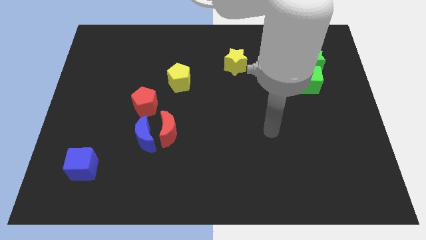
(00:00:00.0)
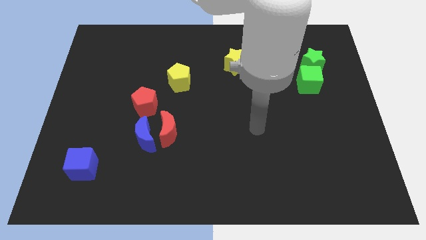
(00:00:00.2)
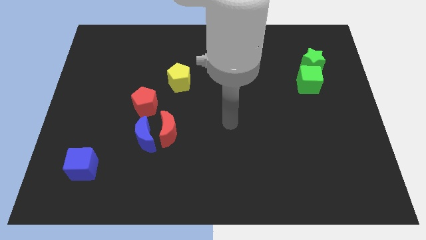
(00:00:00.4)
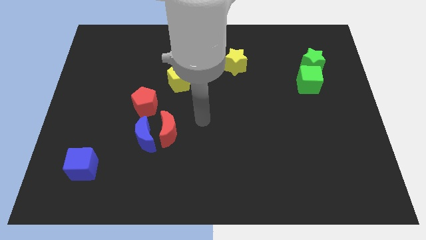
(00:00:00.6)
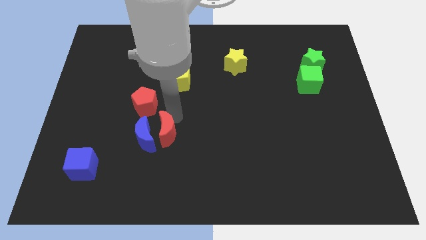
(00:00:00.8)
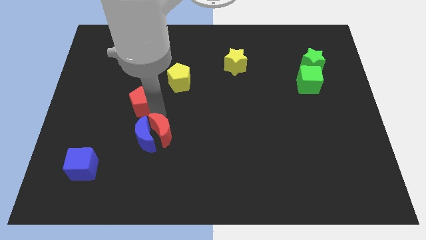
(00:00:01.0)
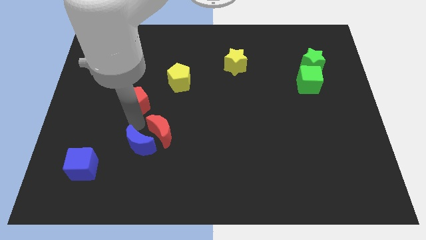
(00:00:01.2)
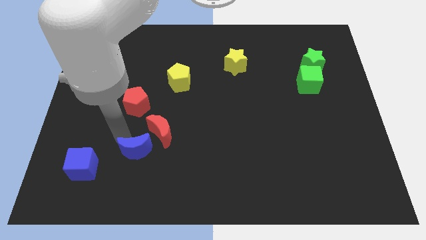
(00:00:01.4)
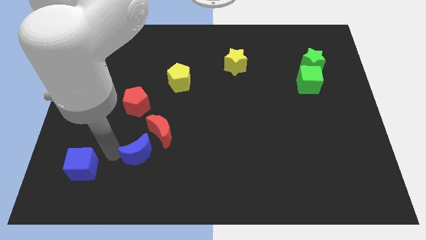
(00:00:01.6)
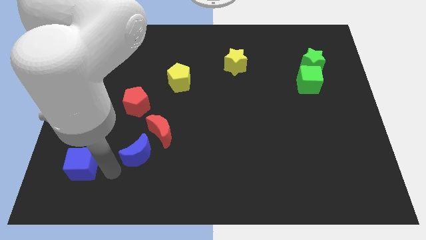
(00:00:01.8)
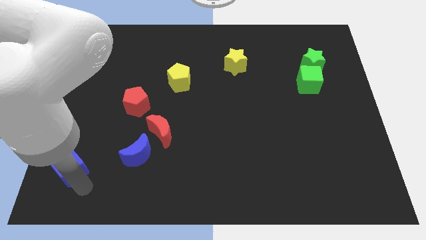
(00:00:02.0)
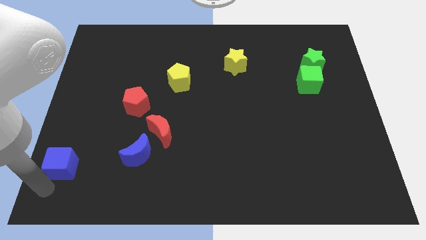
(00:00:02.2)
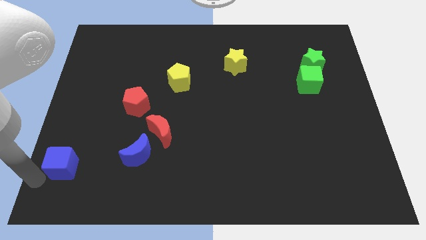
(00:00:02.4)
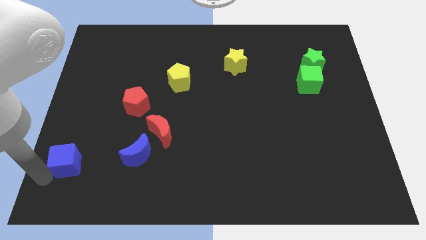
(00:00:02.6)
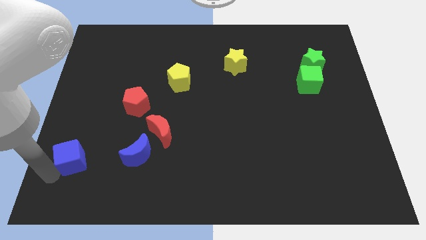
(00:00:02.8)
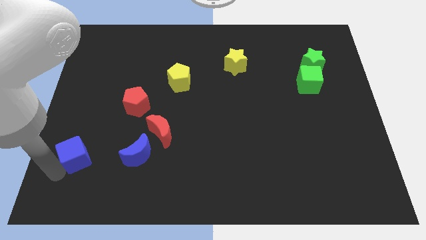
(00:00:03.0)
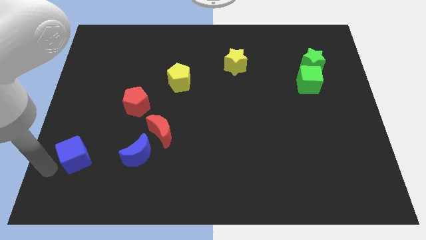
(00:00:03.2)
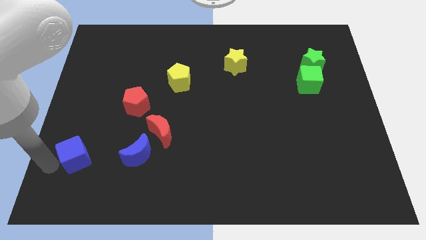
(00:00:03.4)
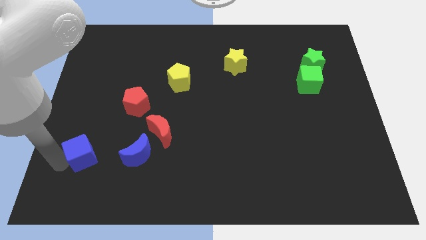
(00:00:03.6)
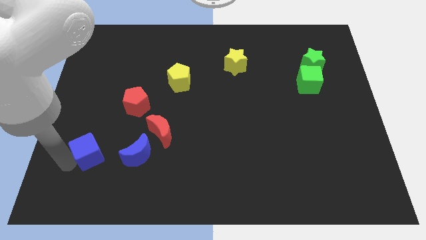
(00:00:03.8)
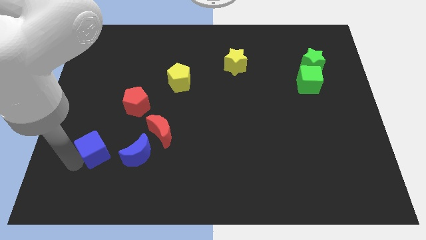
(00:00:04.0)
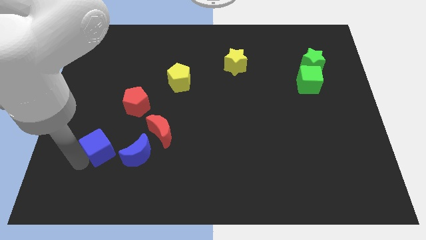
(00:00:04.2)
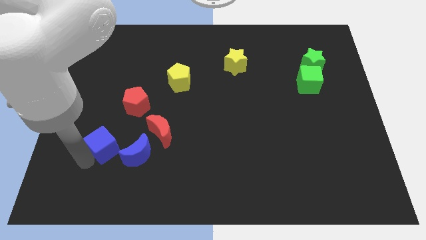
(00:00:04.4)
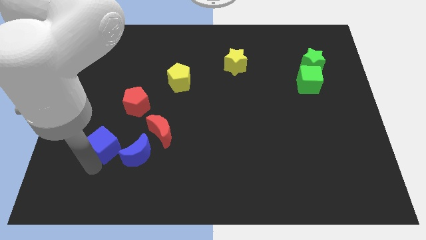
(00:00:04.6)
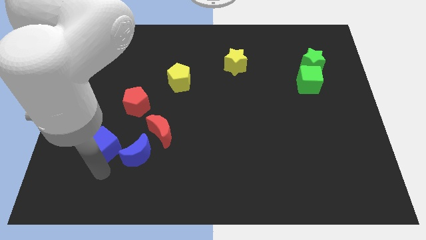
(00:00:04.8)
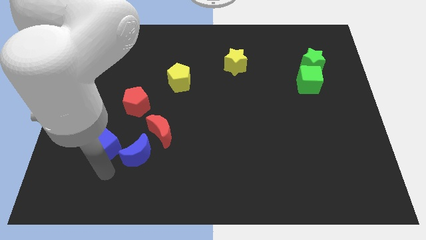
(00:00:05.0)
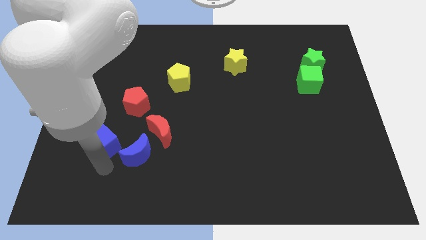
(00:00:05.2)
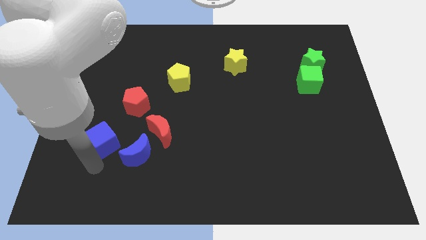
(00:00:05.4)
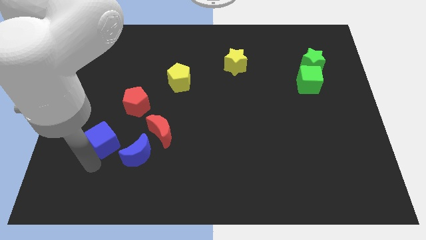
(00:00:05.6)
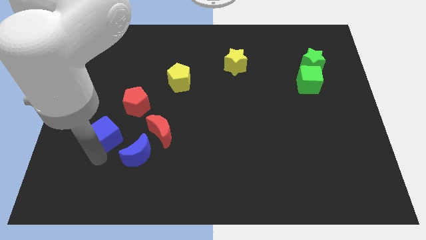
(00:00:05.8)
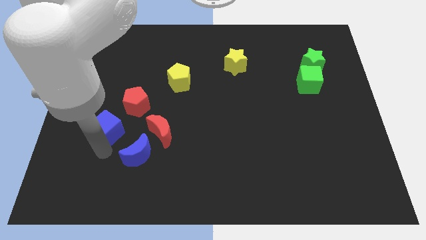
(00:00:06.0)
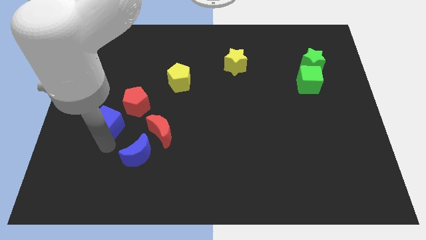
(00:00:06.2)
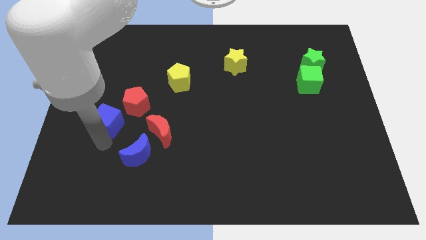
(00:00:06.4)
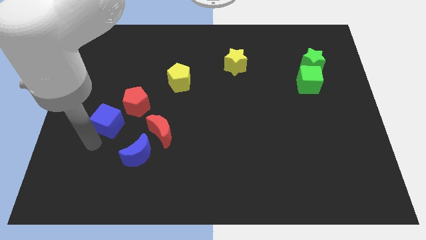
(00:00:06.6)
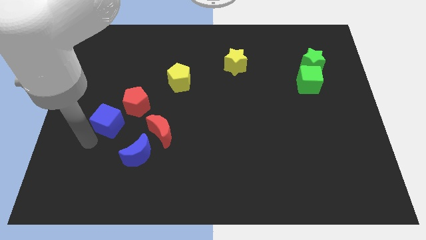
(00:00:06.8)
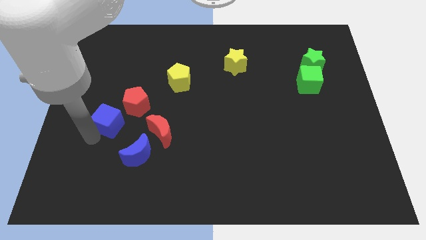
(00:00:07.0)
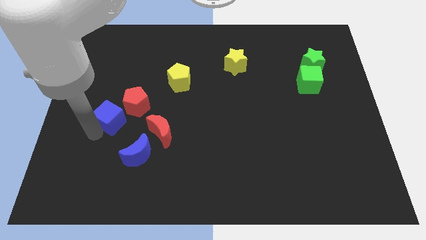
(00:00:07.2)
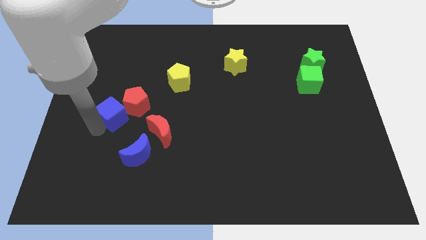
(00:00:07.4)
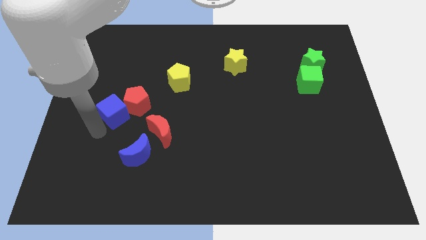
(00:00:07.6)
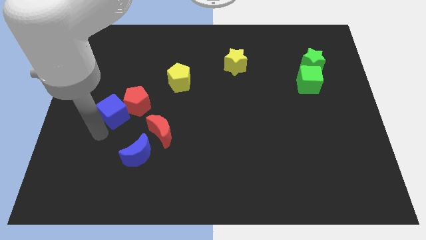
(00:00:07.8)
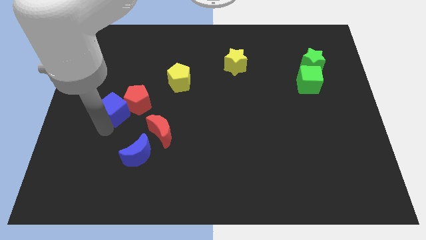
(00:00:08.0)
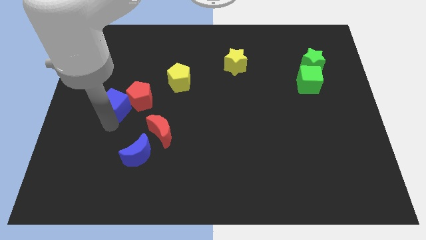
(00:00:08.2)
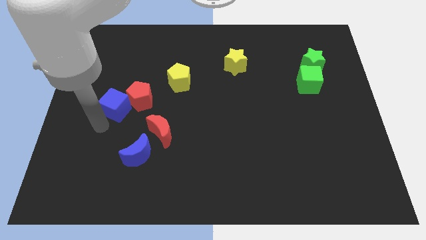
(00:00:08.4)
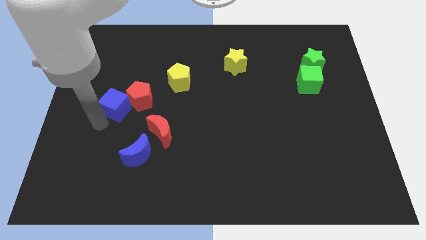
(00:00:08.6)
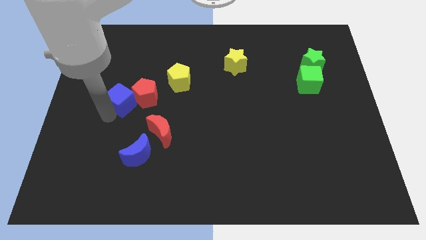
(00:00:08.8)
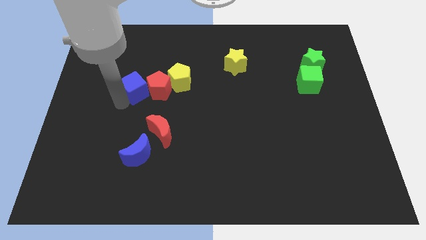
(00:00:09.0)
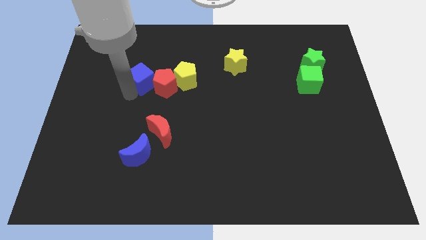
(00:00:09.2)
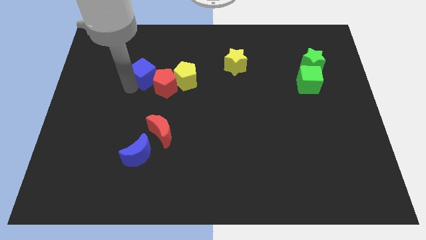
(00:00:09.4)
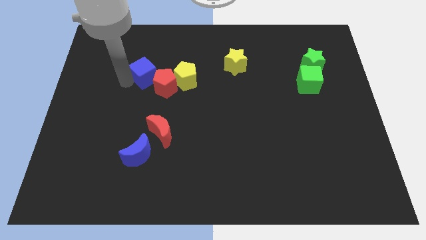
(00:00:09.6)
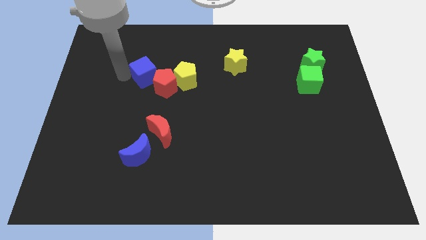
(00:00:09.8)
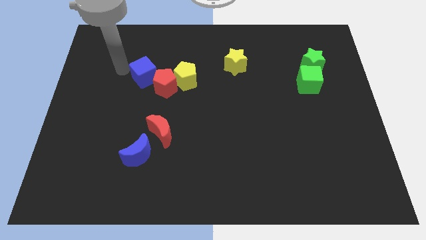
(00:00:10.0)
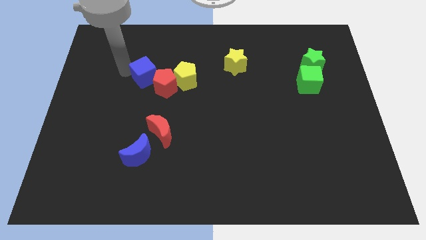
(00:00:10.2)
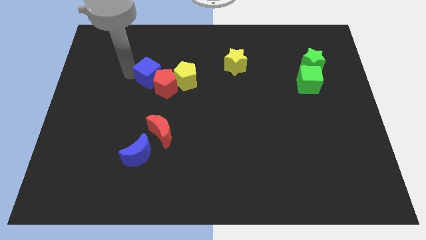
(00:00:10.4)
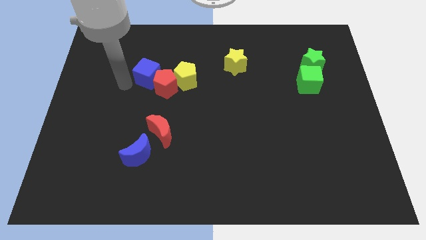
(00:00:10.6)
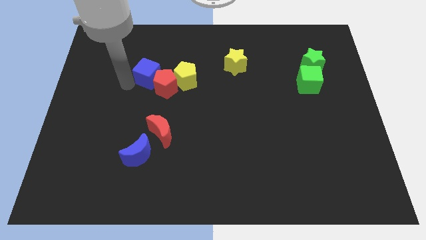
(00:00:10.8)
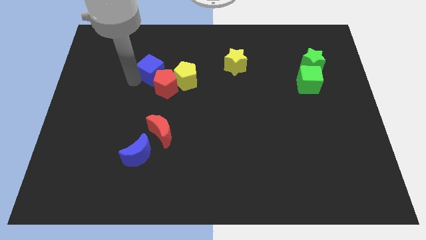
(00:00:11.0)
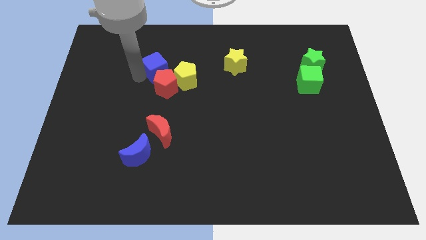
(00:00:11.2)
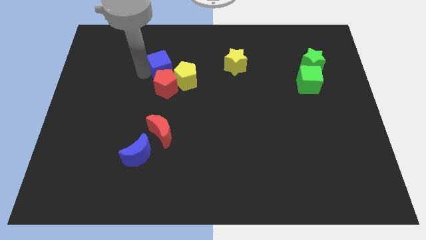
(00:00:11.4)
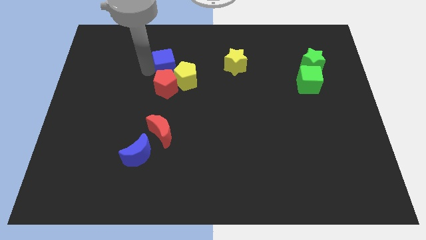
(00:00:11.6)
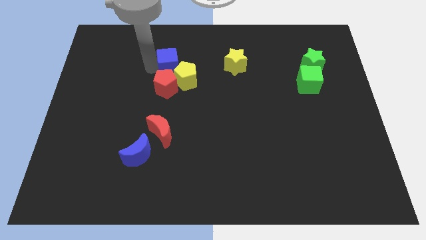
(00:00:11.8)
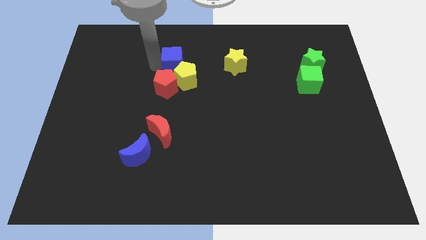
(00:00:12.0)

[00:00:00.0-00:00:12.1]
push the blue cube to the left side of the yellow star

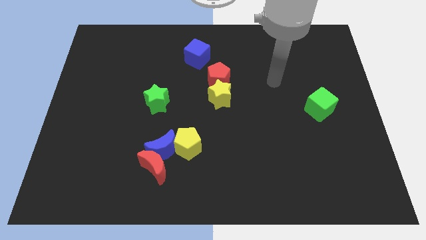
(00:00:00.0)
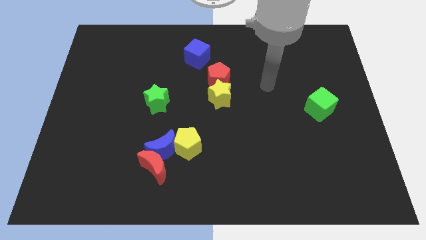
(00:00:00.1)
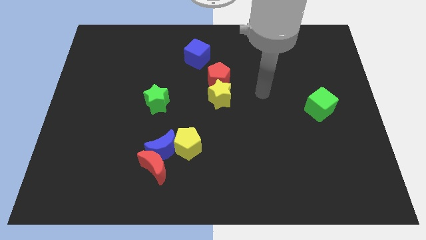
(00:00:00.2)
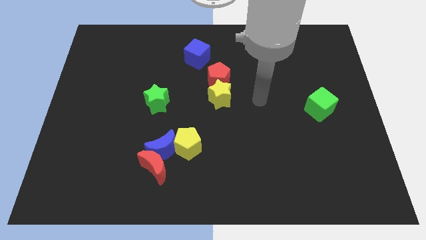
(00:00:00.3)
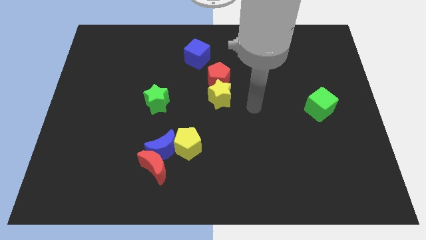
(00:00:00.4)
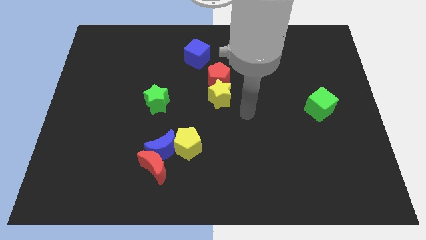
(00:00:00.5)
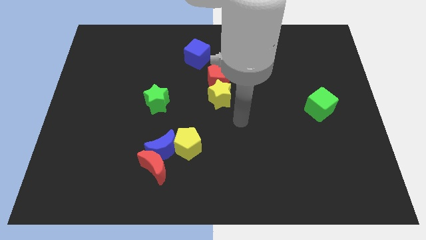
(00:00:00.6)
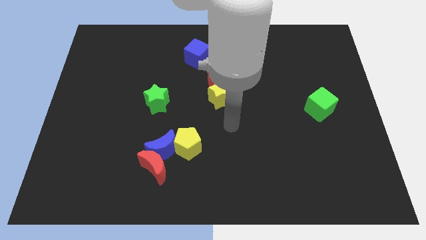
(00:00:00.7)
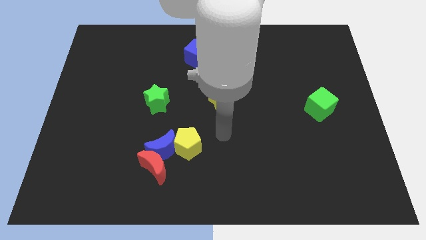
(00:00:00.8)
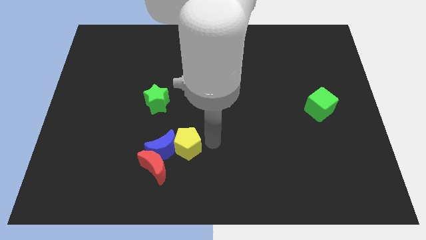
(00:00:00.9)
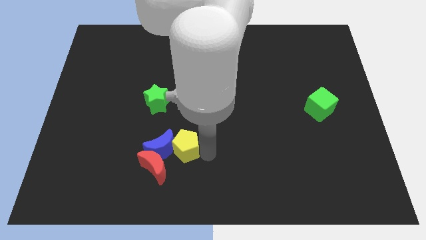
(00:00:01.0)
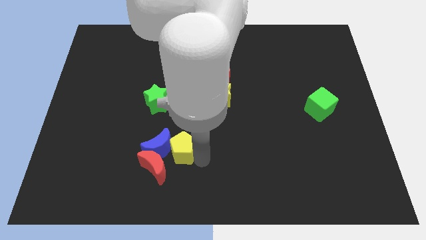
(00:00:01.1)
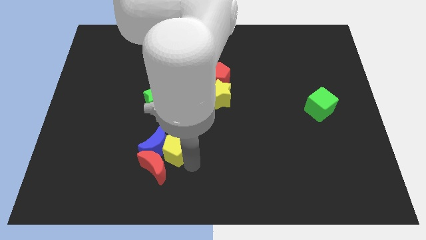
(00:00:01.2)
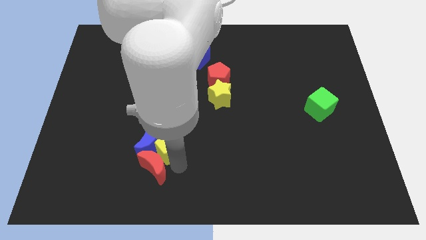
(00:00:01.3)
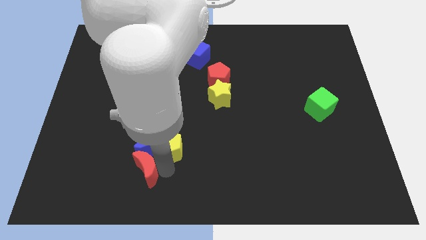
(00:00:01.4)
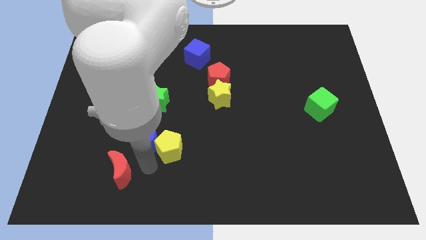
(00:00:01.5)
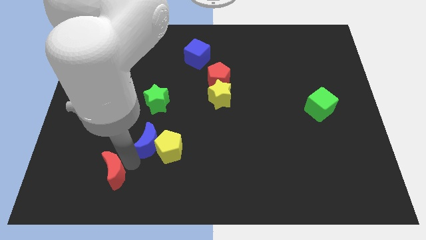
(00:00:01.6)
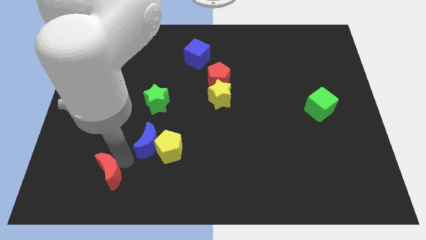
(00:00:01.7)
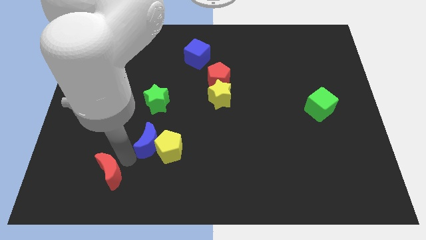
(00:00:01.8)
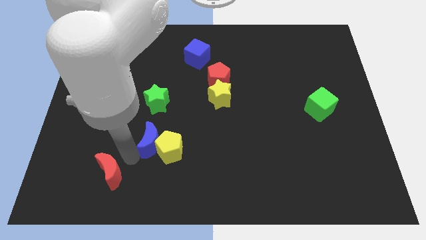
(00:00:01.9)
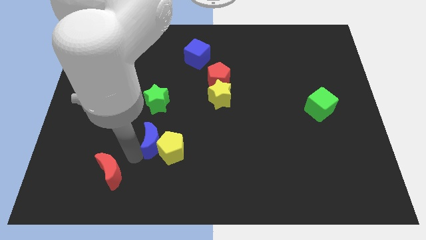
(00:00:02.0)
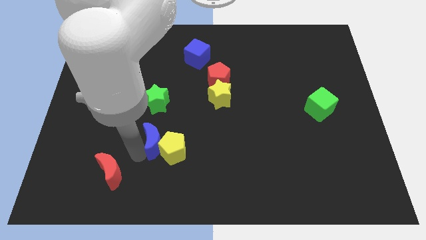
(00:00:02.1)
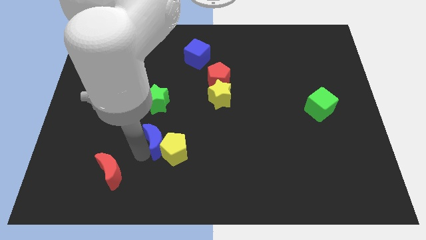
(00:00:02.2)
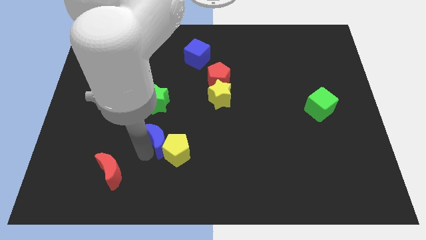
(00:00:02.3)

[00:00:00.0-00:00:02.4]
move the blue moon to the top side of the yellow pentagon
